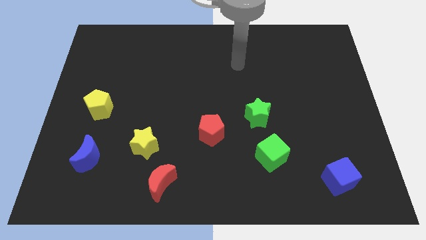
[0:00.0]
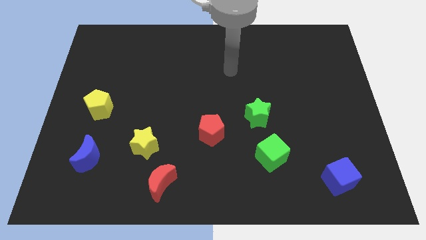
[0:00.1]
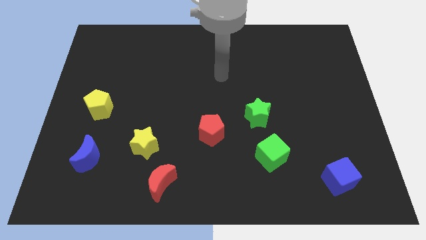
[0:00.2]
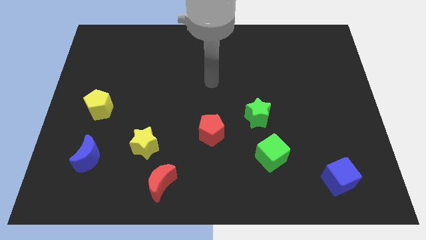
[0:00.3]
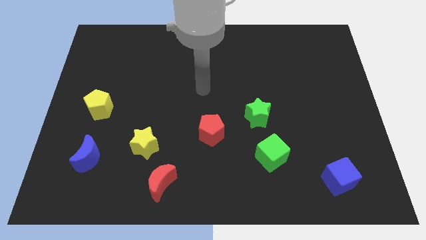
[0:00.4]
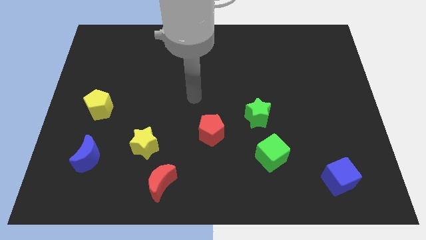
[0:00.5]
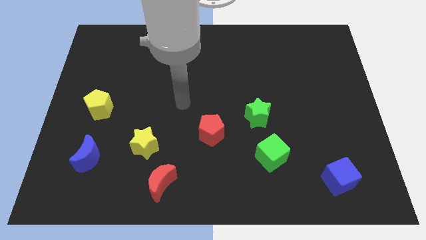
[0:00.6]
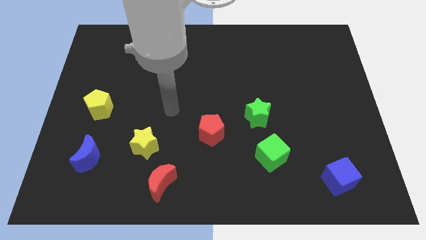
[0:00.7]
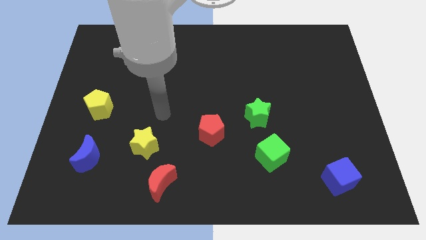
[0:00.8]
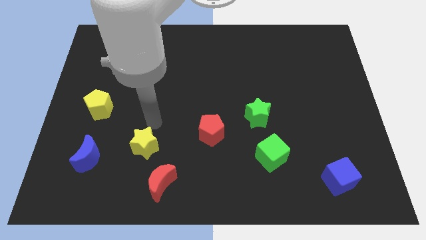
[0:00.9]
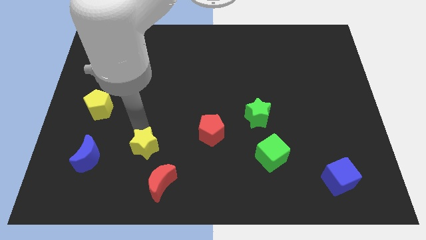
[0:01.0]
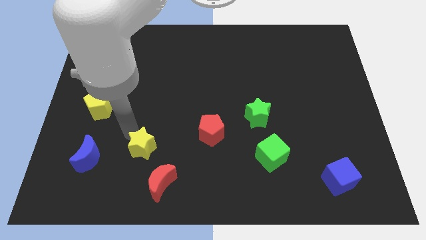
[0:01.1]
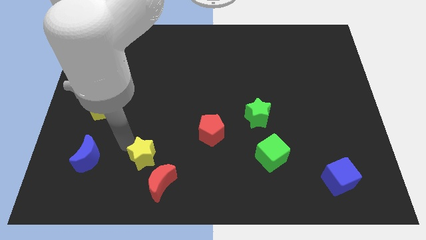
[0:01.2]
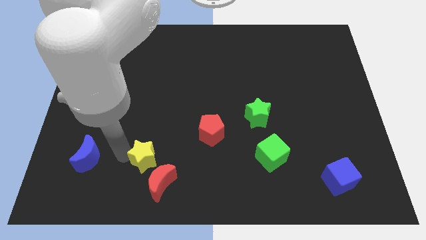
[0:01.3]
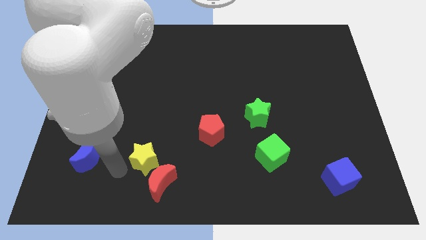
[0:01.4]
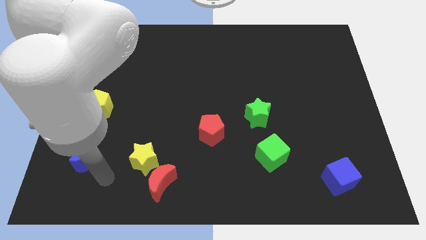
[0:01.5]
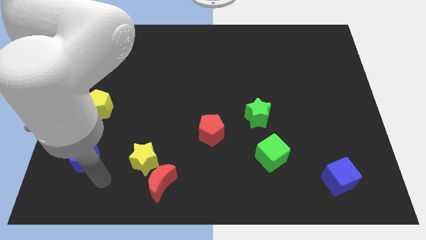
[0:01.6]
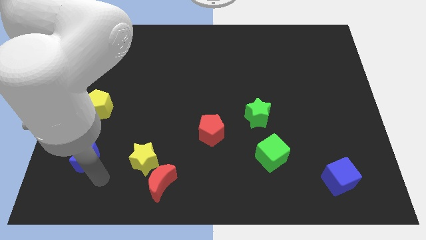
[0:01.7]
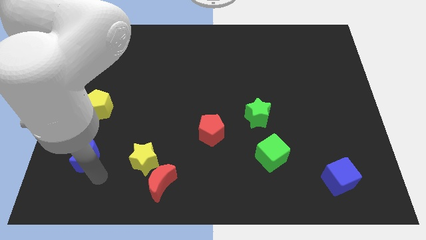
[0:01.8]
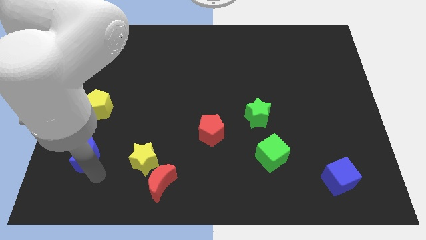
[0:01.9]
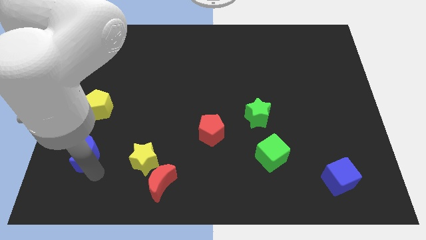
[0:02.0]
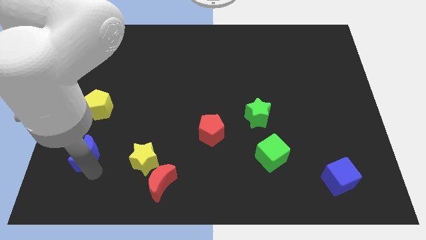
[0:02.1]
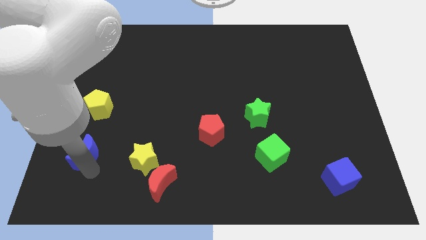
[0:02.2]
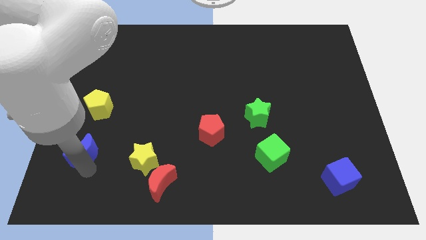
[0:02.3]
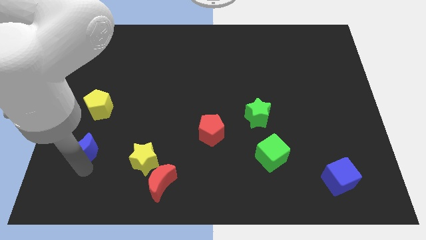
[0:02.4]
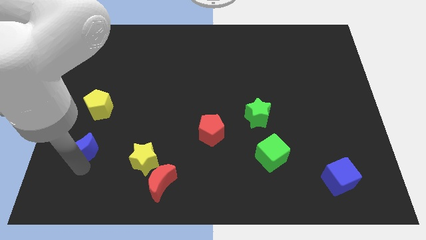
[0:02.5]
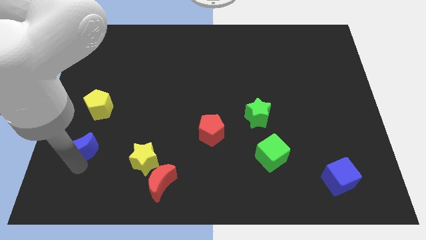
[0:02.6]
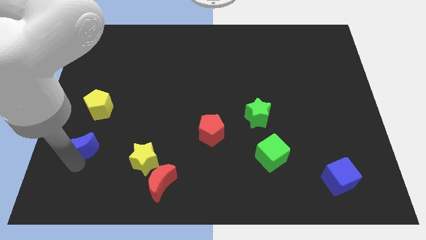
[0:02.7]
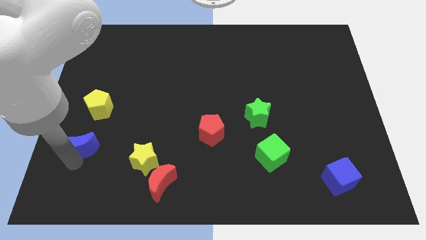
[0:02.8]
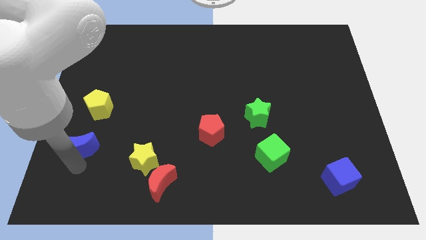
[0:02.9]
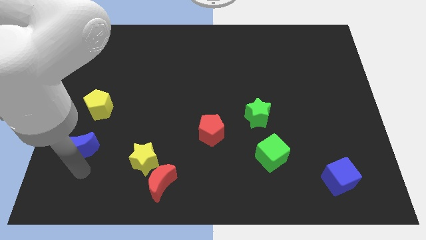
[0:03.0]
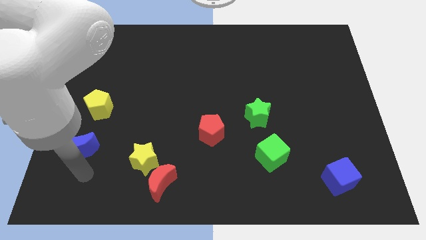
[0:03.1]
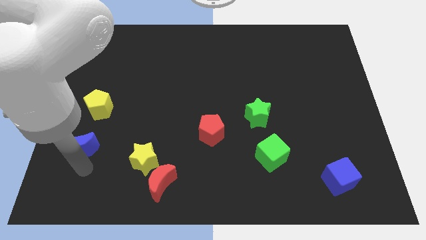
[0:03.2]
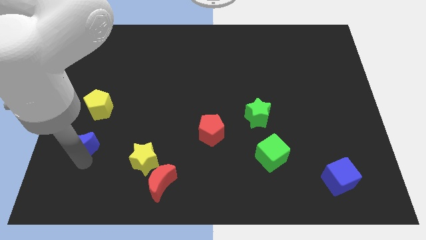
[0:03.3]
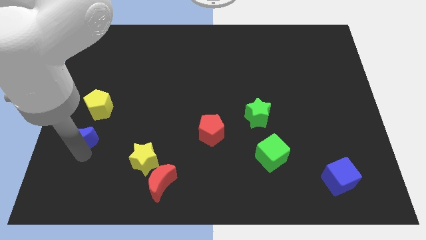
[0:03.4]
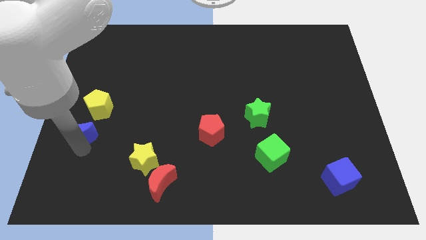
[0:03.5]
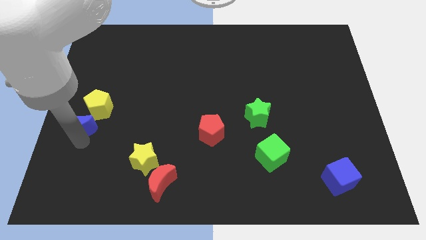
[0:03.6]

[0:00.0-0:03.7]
move the blue moon upwards somewhat

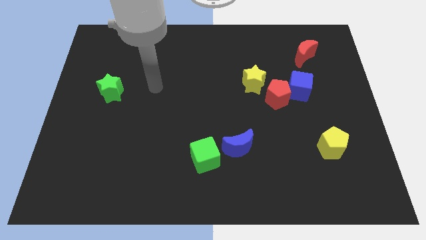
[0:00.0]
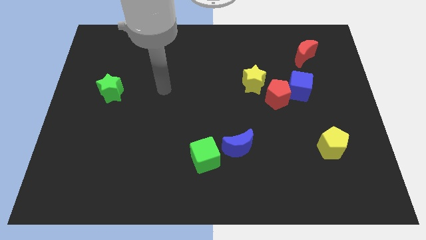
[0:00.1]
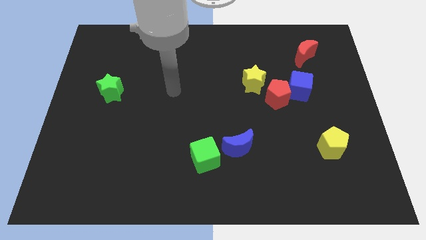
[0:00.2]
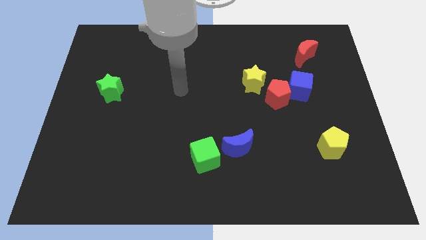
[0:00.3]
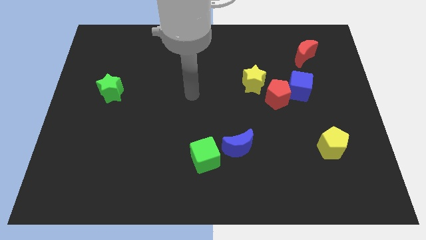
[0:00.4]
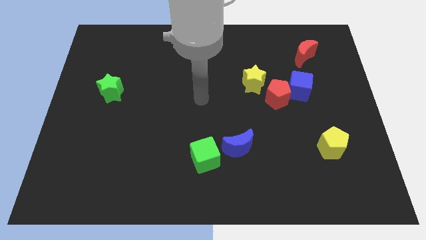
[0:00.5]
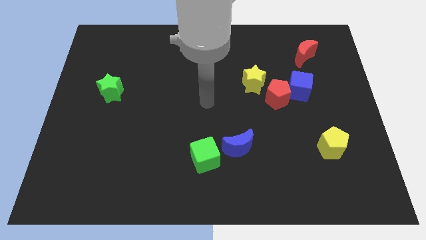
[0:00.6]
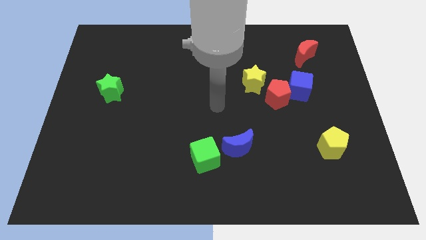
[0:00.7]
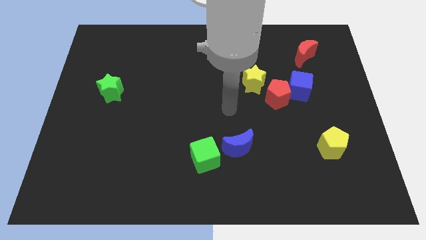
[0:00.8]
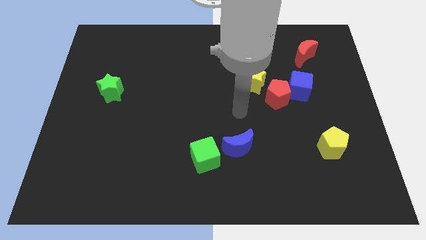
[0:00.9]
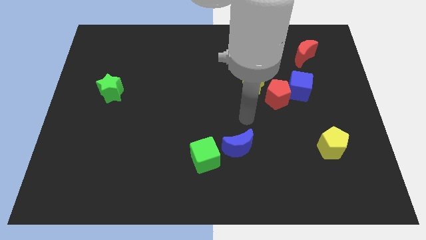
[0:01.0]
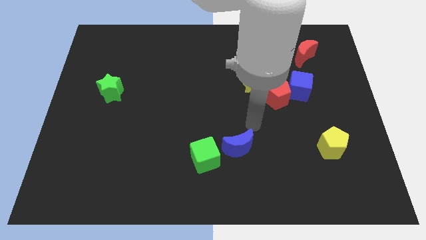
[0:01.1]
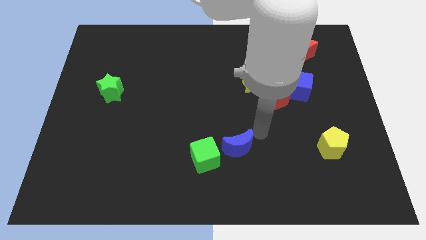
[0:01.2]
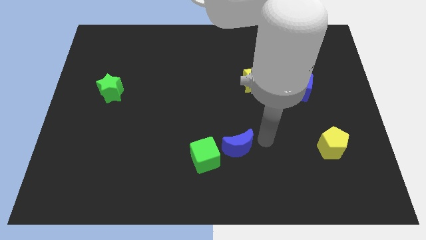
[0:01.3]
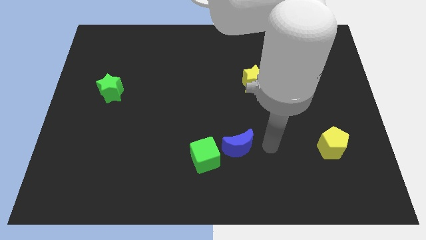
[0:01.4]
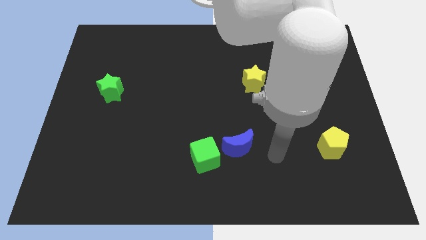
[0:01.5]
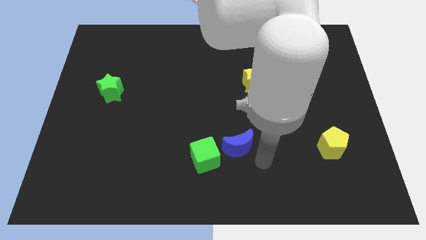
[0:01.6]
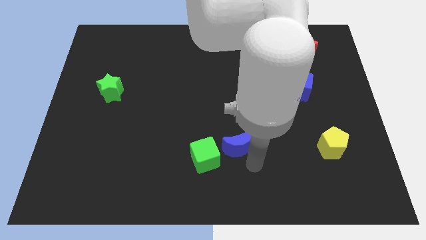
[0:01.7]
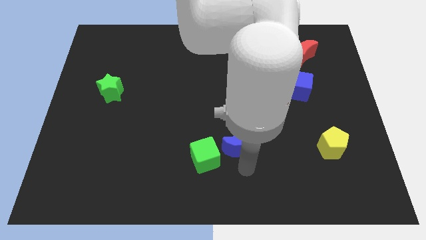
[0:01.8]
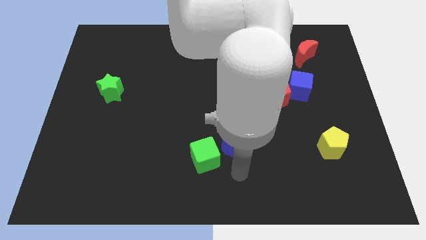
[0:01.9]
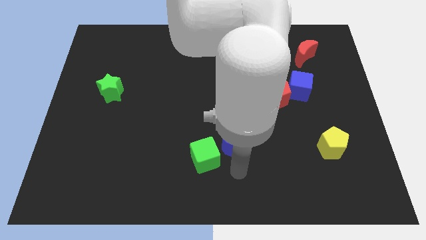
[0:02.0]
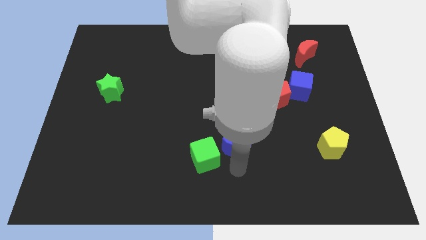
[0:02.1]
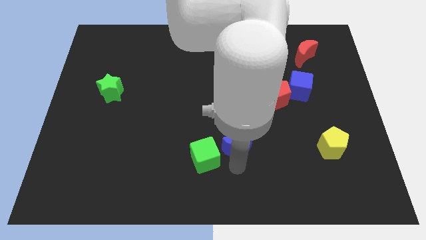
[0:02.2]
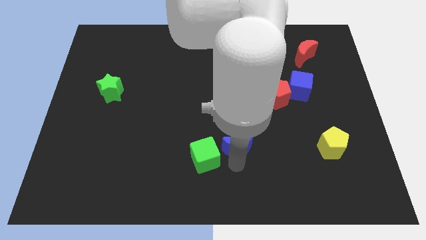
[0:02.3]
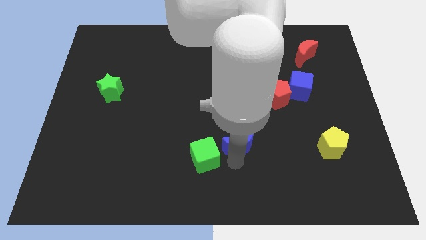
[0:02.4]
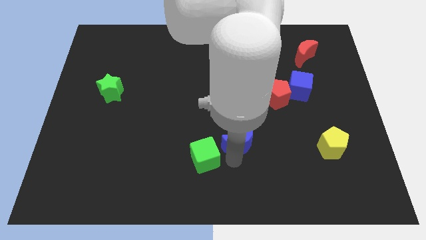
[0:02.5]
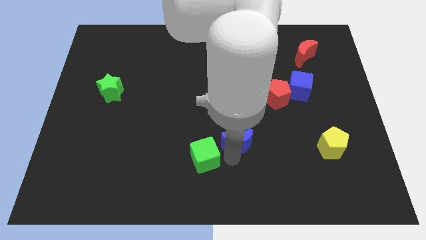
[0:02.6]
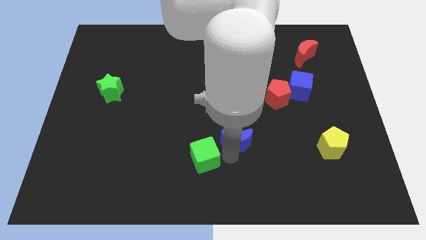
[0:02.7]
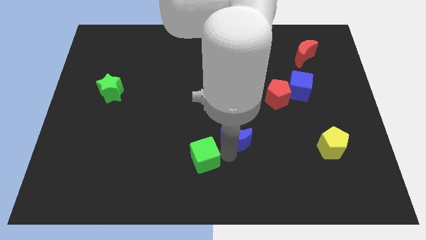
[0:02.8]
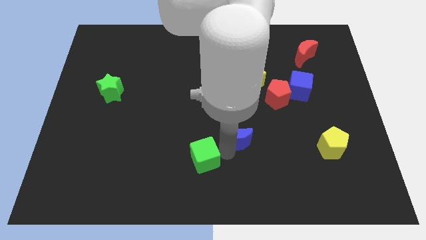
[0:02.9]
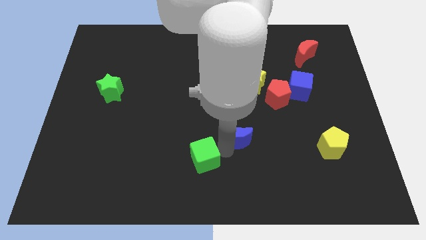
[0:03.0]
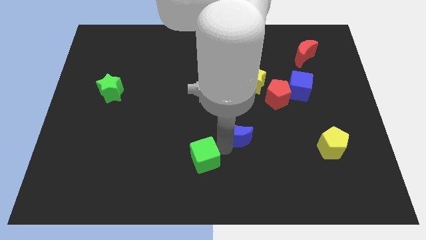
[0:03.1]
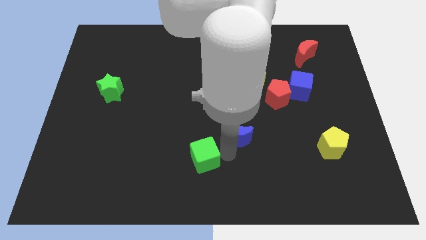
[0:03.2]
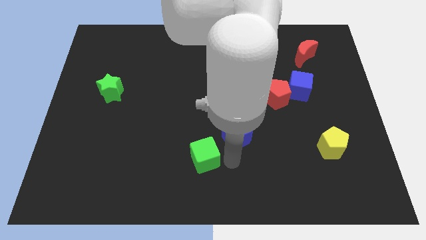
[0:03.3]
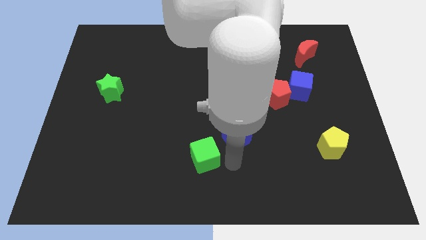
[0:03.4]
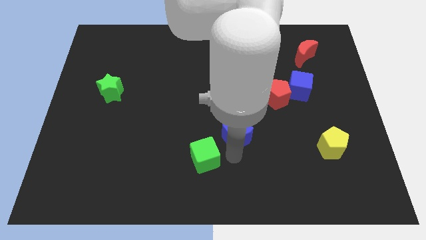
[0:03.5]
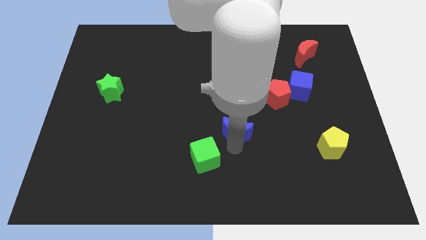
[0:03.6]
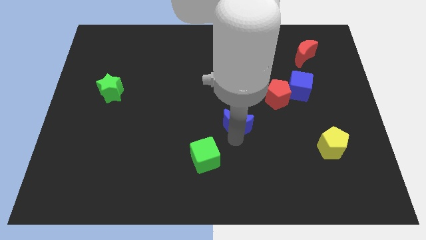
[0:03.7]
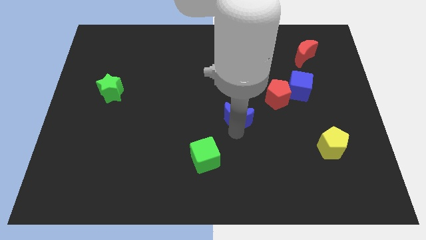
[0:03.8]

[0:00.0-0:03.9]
slightly slide the blue moon upwards

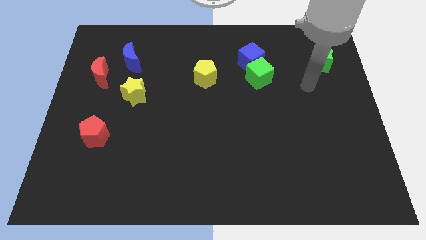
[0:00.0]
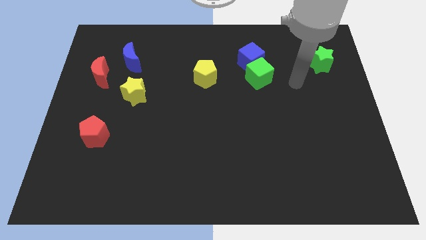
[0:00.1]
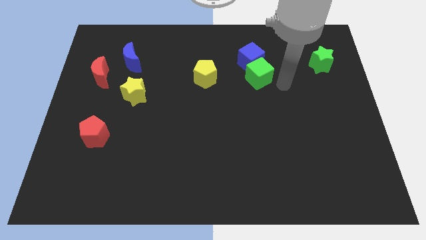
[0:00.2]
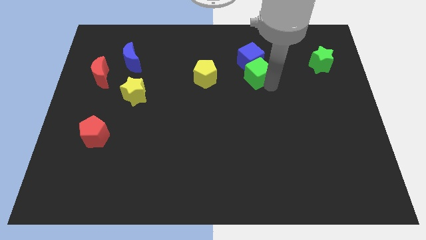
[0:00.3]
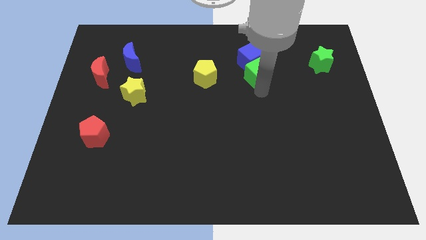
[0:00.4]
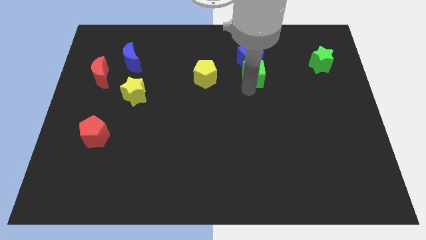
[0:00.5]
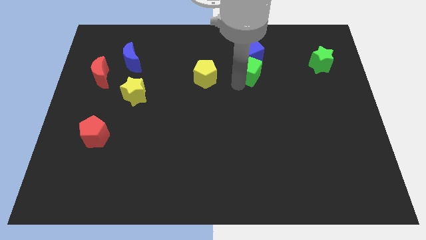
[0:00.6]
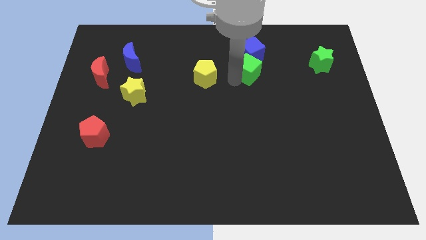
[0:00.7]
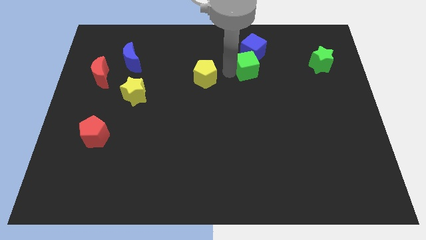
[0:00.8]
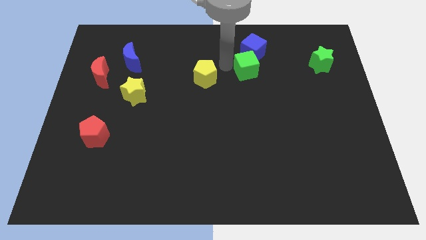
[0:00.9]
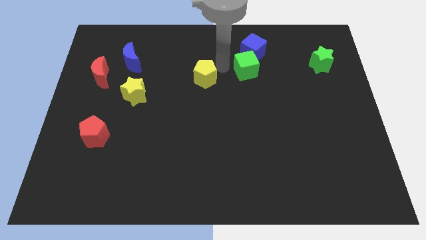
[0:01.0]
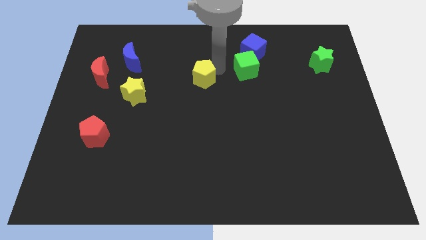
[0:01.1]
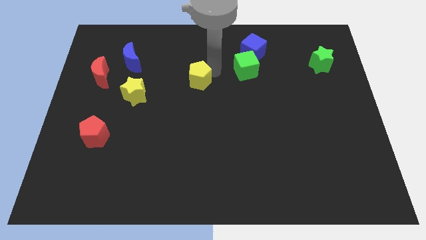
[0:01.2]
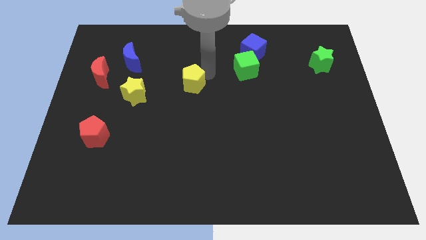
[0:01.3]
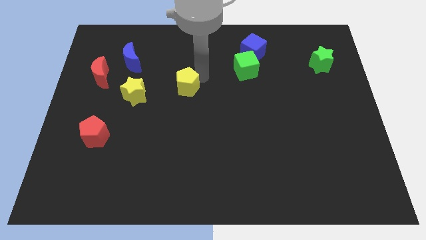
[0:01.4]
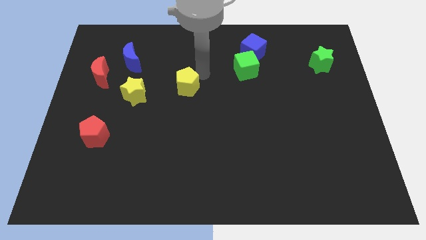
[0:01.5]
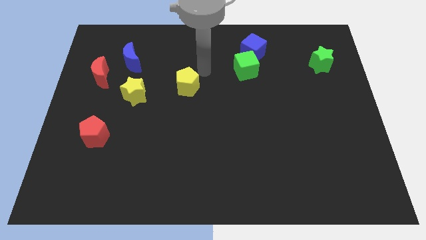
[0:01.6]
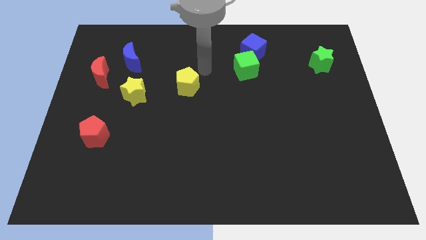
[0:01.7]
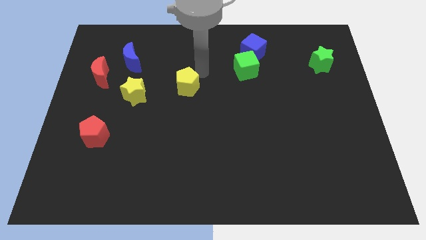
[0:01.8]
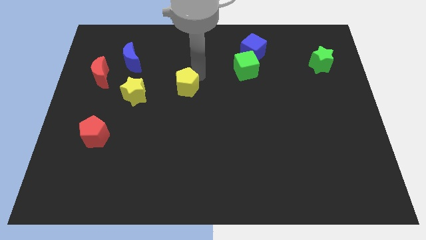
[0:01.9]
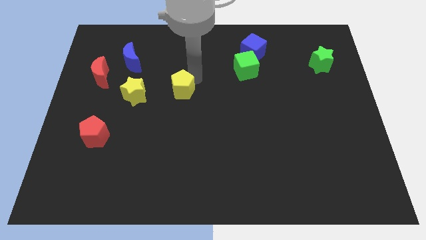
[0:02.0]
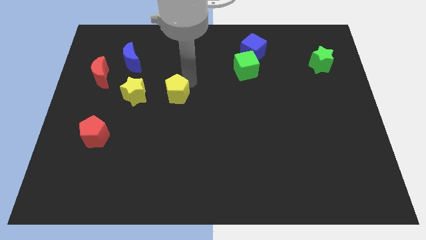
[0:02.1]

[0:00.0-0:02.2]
slide the yellow pentagon downwards and left slightly
